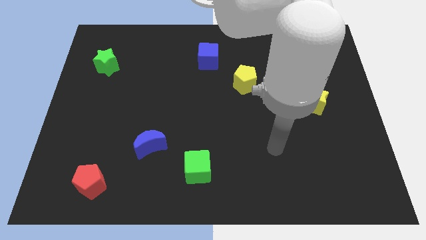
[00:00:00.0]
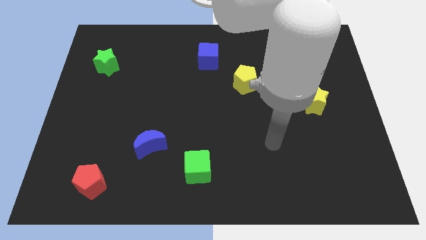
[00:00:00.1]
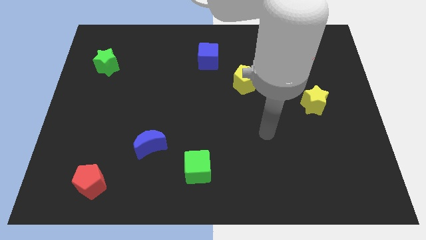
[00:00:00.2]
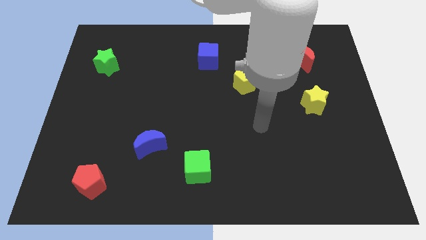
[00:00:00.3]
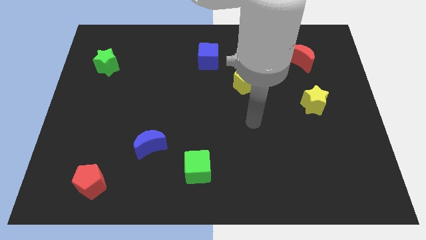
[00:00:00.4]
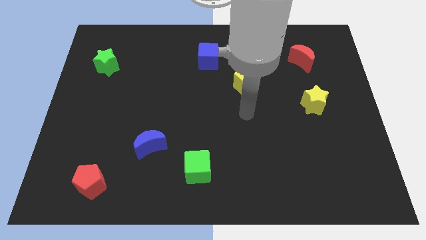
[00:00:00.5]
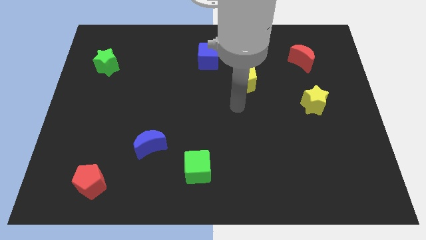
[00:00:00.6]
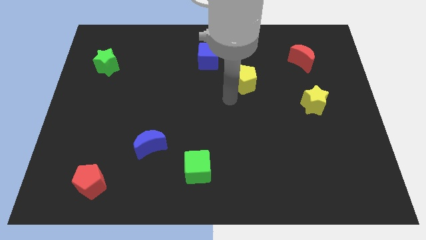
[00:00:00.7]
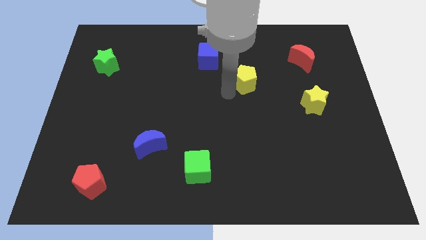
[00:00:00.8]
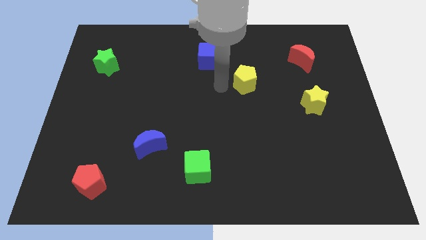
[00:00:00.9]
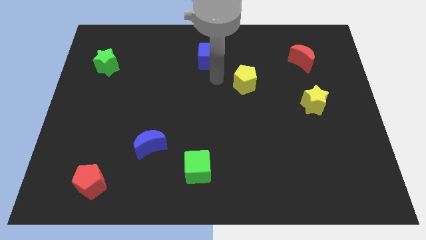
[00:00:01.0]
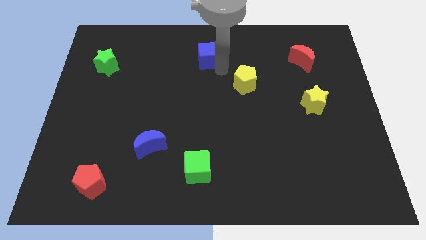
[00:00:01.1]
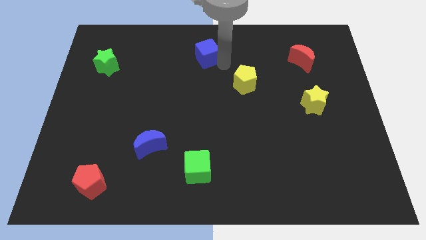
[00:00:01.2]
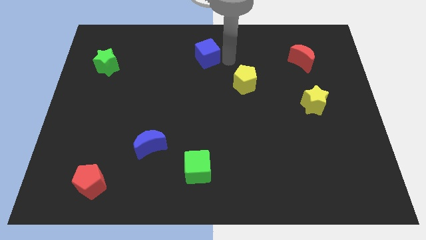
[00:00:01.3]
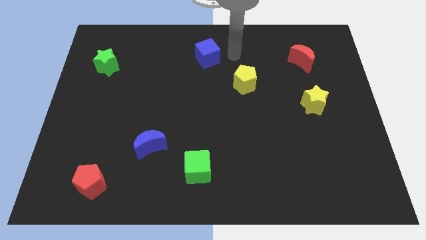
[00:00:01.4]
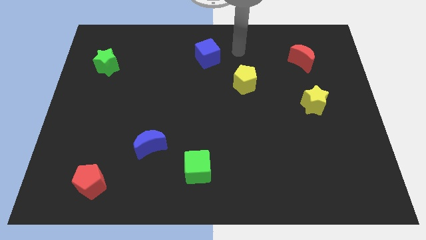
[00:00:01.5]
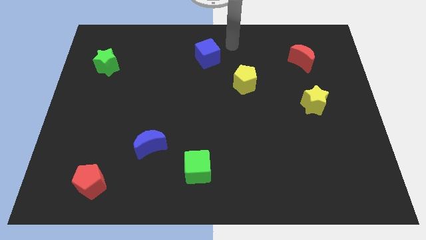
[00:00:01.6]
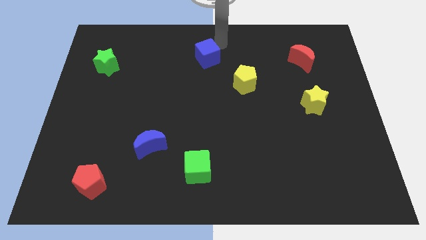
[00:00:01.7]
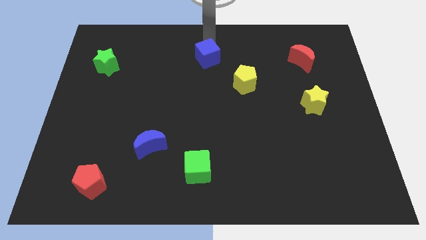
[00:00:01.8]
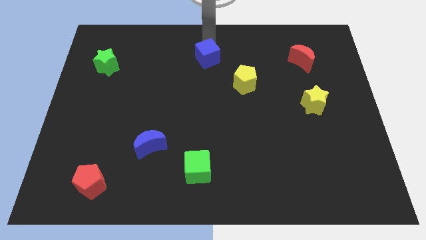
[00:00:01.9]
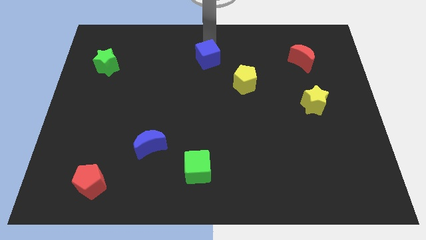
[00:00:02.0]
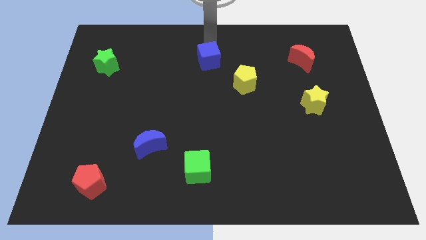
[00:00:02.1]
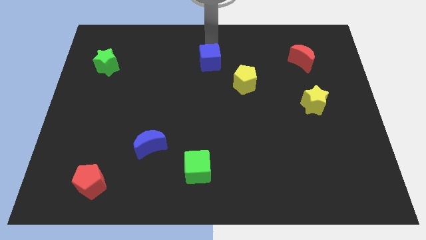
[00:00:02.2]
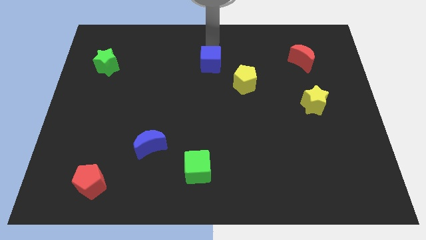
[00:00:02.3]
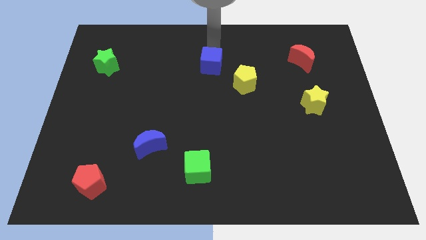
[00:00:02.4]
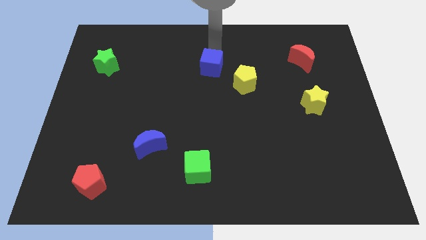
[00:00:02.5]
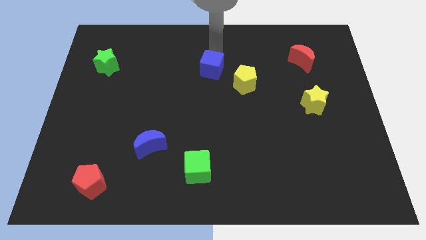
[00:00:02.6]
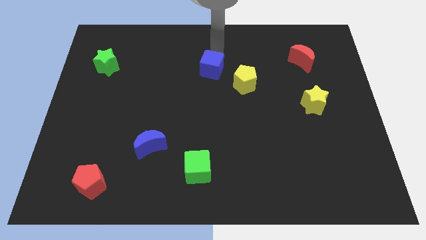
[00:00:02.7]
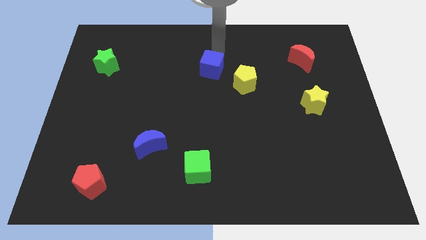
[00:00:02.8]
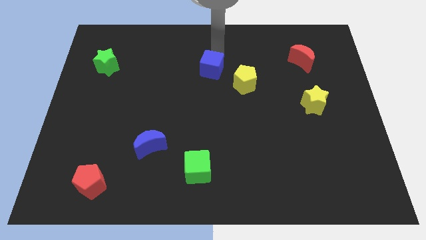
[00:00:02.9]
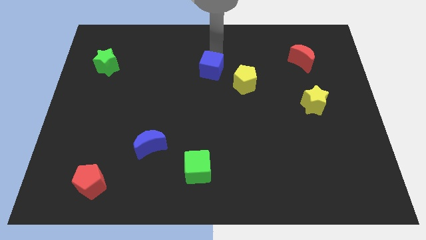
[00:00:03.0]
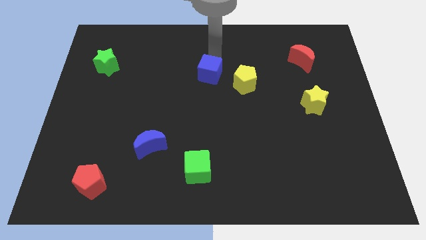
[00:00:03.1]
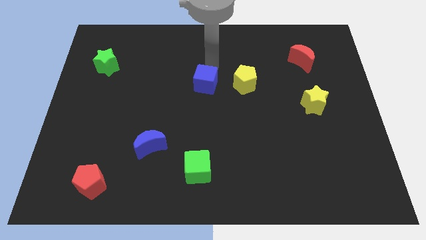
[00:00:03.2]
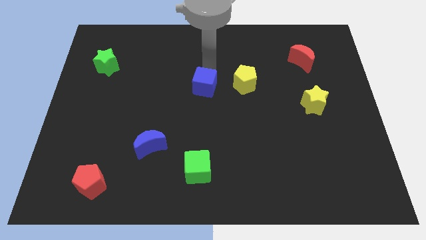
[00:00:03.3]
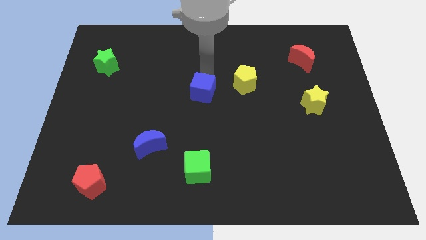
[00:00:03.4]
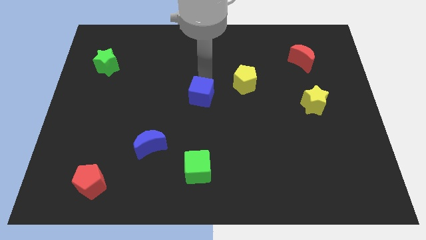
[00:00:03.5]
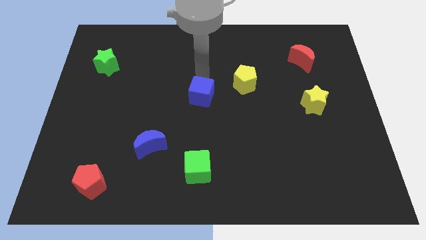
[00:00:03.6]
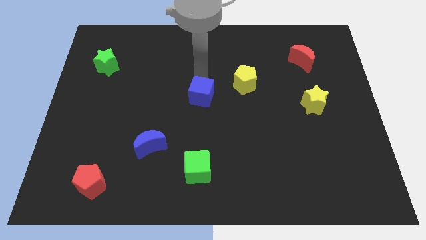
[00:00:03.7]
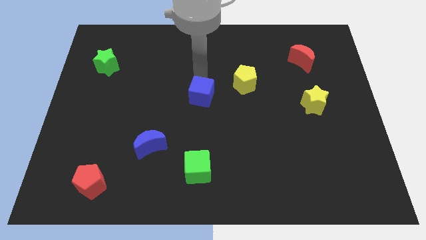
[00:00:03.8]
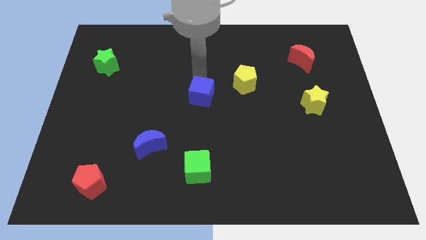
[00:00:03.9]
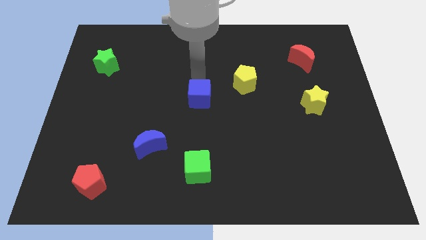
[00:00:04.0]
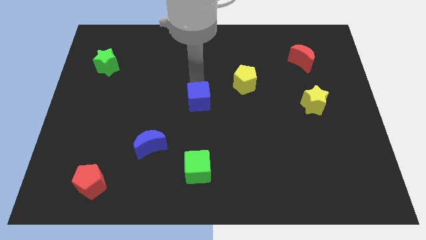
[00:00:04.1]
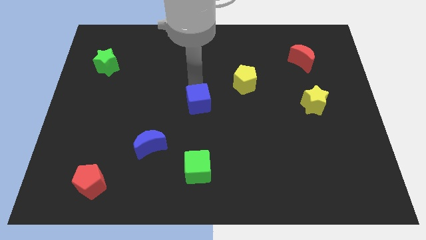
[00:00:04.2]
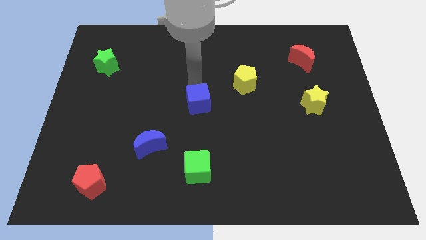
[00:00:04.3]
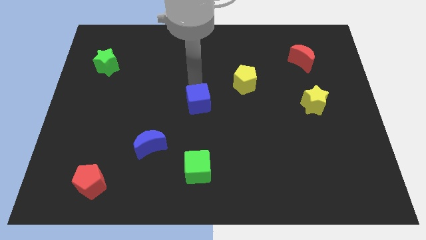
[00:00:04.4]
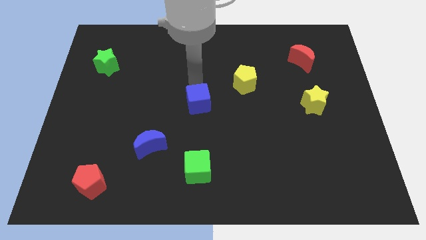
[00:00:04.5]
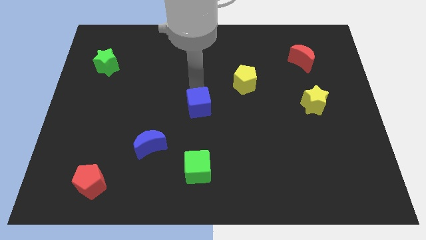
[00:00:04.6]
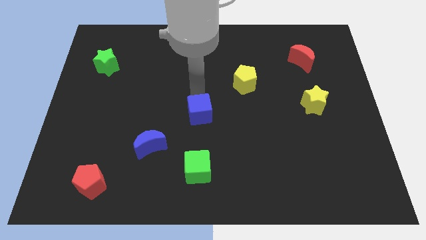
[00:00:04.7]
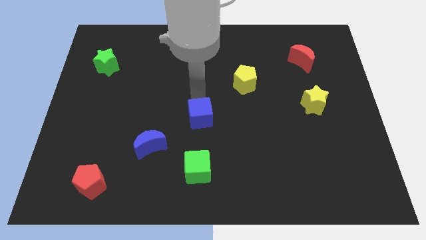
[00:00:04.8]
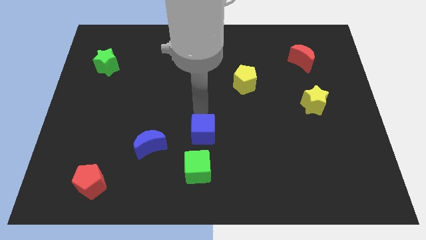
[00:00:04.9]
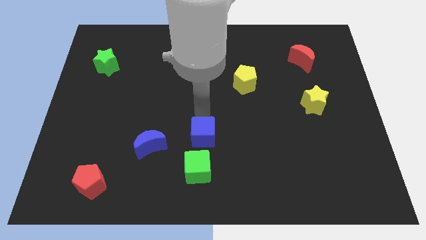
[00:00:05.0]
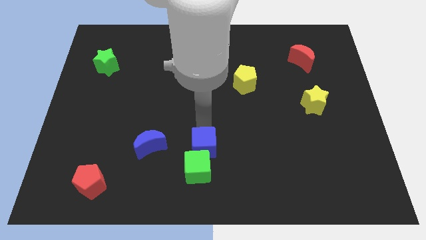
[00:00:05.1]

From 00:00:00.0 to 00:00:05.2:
slide the blue cube towards the green cube

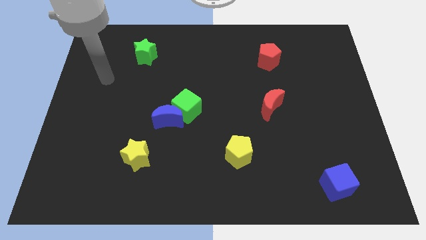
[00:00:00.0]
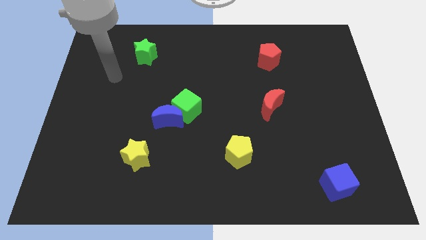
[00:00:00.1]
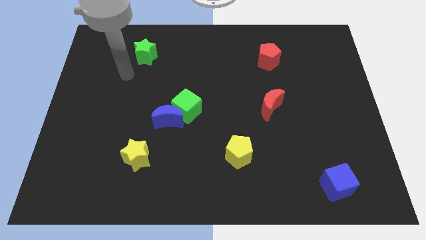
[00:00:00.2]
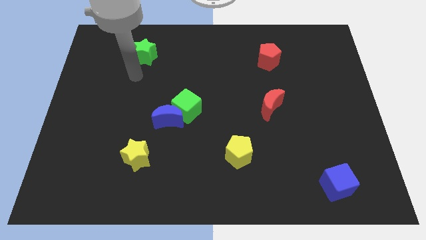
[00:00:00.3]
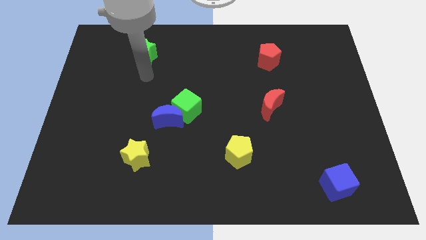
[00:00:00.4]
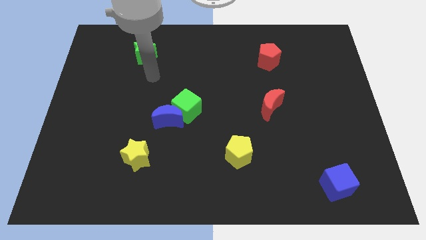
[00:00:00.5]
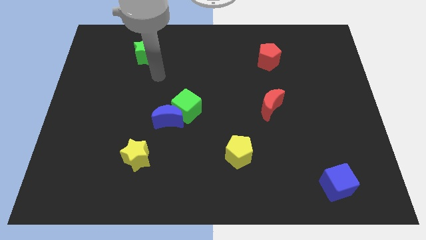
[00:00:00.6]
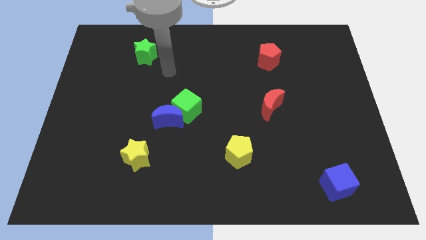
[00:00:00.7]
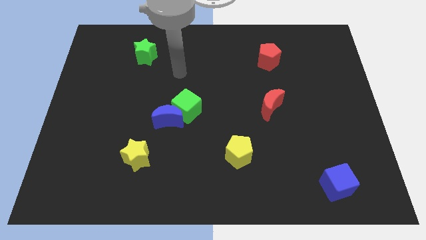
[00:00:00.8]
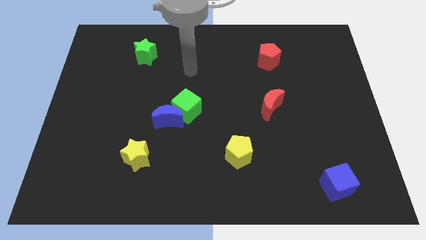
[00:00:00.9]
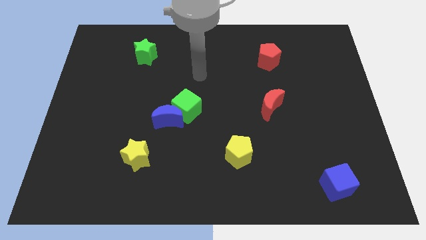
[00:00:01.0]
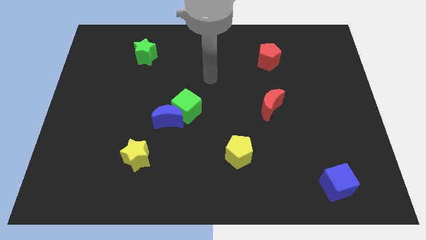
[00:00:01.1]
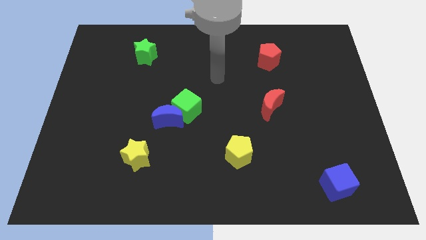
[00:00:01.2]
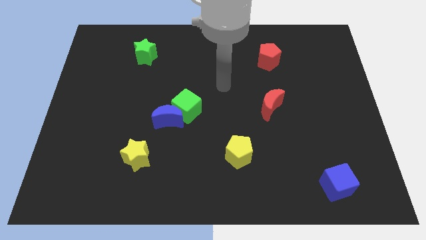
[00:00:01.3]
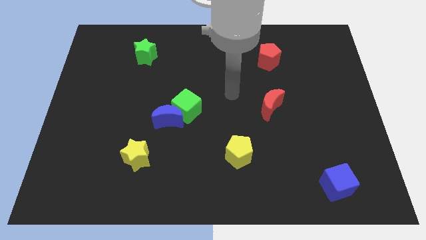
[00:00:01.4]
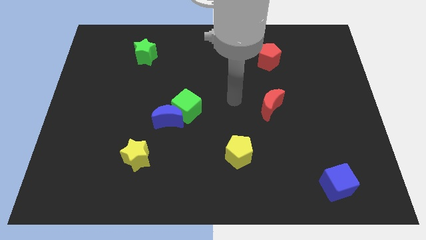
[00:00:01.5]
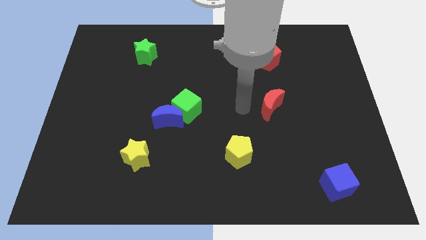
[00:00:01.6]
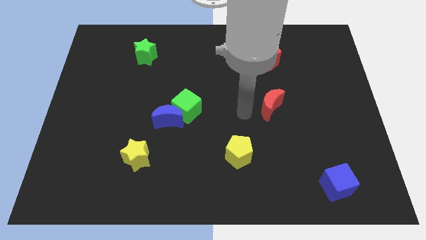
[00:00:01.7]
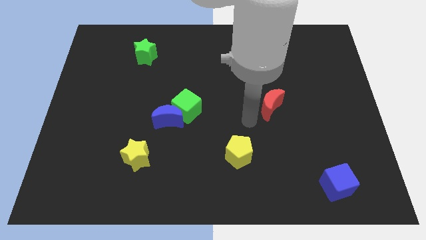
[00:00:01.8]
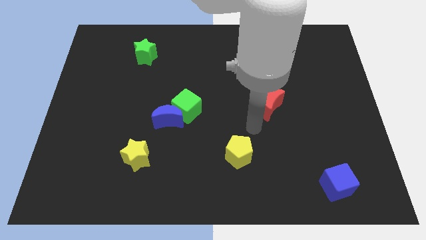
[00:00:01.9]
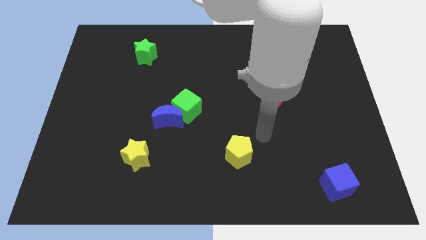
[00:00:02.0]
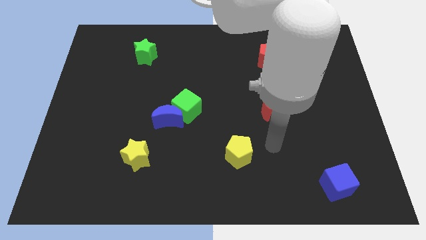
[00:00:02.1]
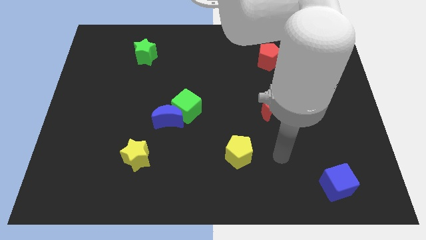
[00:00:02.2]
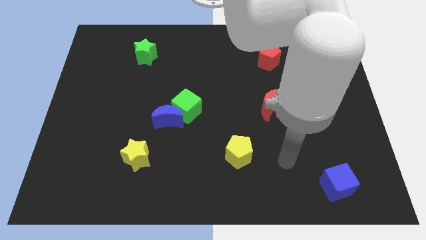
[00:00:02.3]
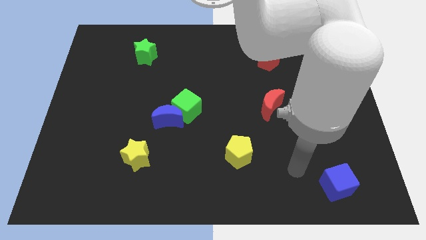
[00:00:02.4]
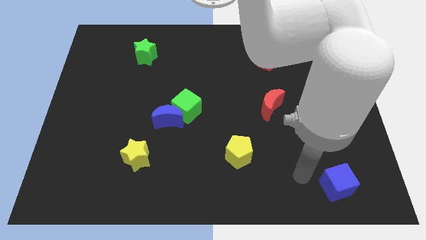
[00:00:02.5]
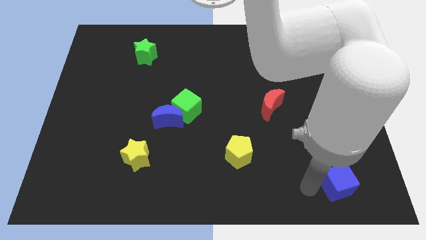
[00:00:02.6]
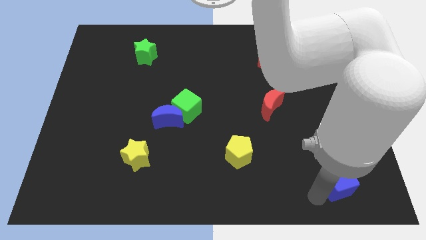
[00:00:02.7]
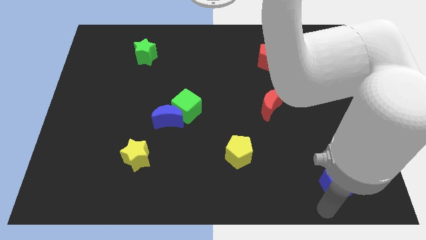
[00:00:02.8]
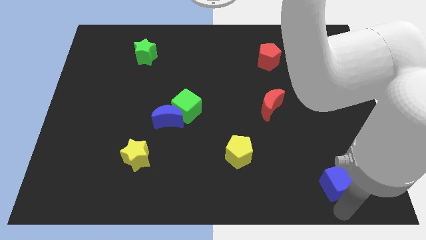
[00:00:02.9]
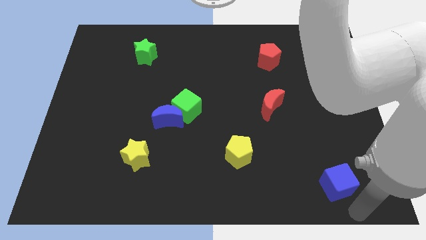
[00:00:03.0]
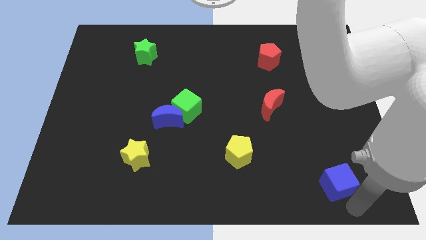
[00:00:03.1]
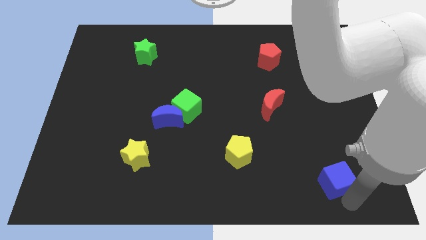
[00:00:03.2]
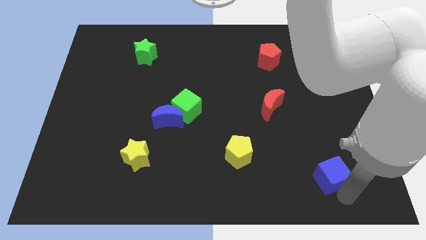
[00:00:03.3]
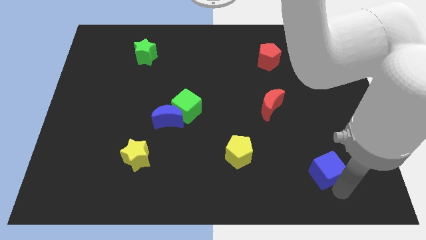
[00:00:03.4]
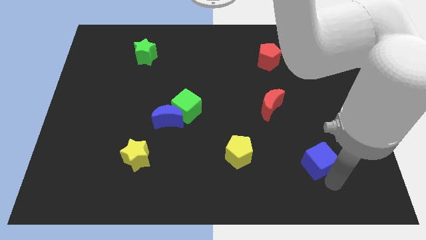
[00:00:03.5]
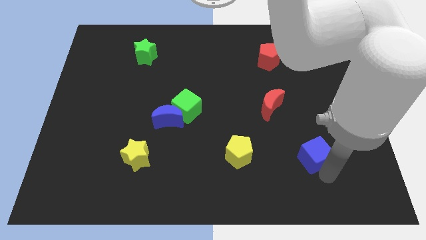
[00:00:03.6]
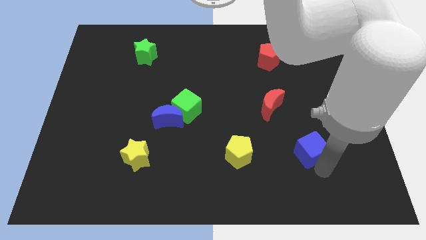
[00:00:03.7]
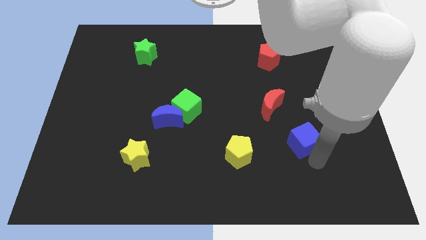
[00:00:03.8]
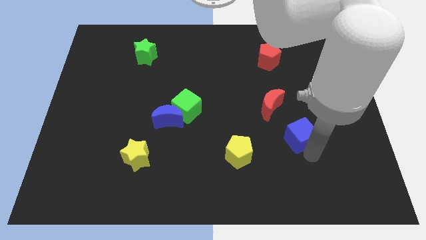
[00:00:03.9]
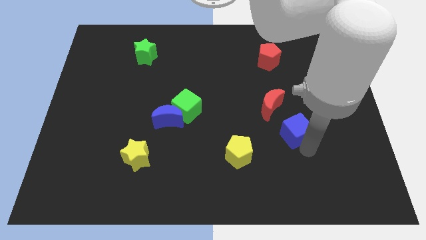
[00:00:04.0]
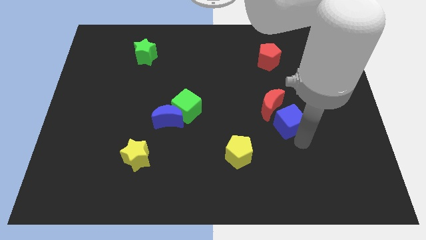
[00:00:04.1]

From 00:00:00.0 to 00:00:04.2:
move the blue cube close to the red moon
